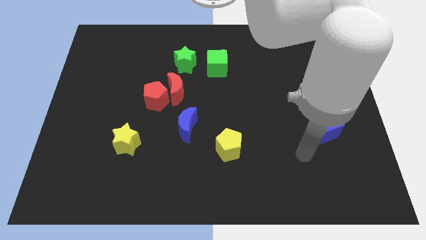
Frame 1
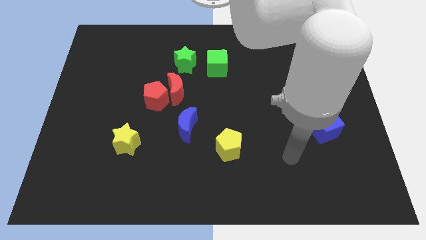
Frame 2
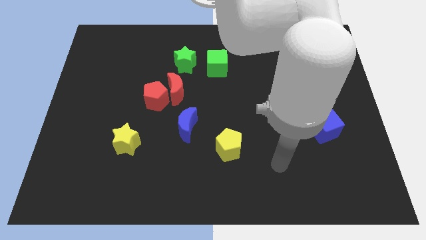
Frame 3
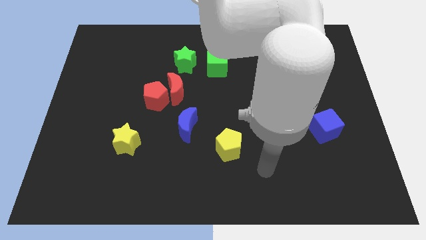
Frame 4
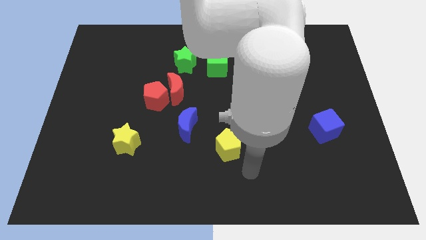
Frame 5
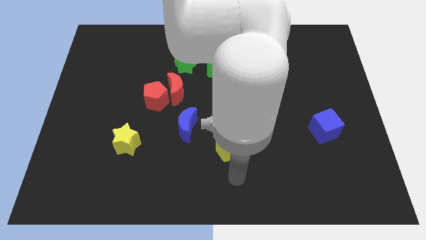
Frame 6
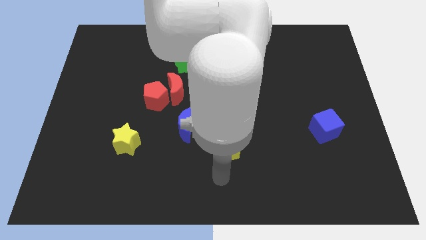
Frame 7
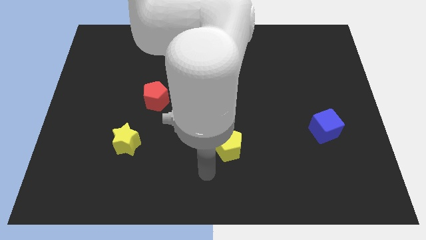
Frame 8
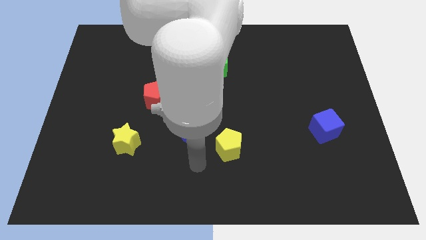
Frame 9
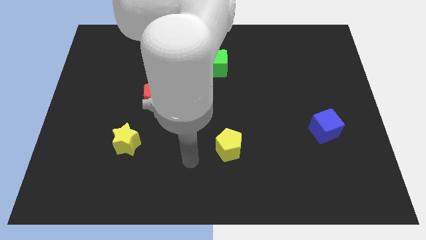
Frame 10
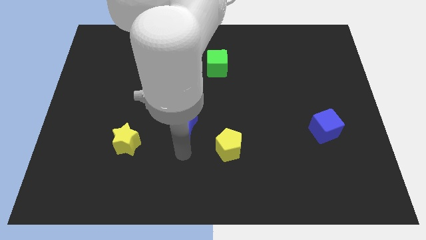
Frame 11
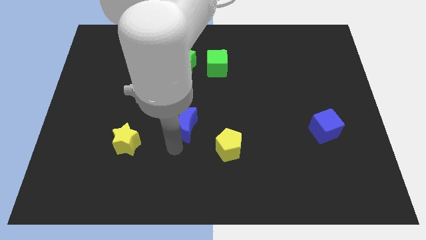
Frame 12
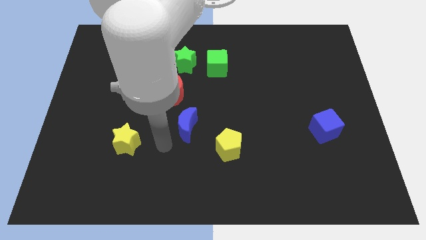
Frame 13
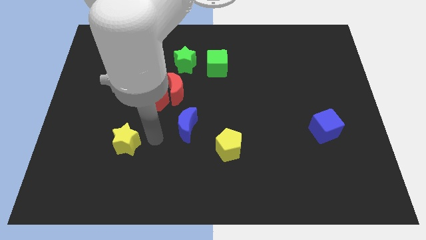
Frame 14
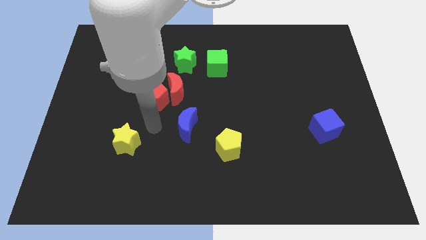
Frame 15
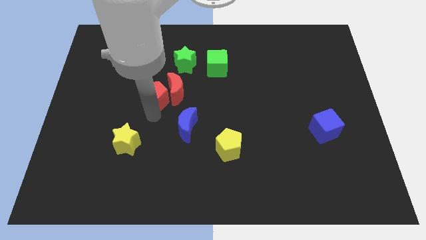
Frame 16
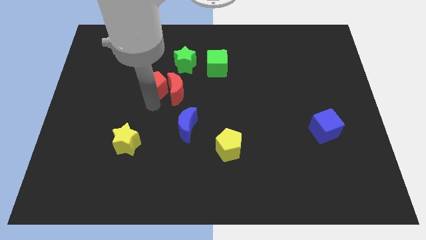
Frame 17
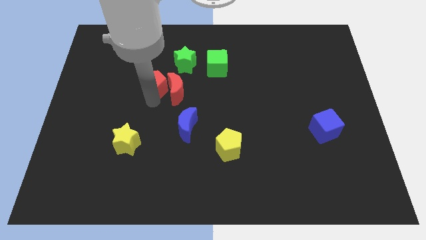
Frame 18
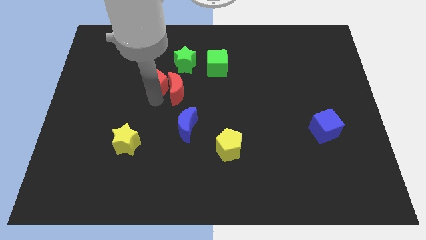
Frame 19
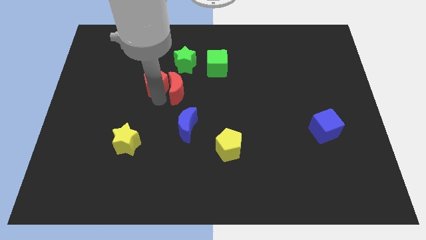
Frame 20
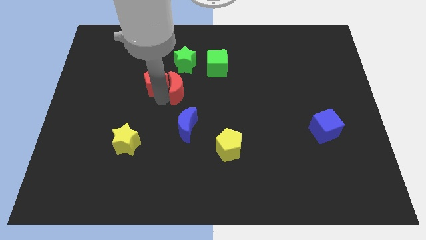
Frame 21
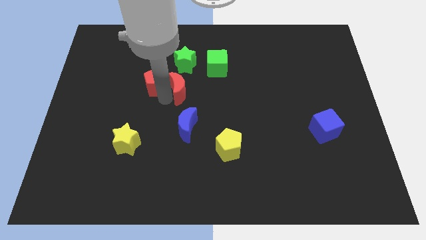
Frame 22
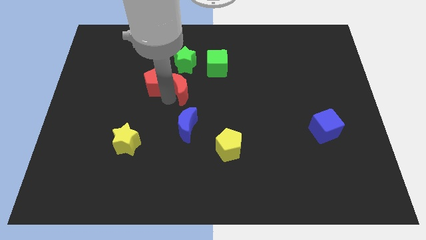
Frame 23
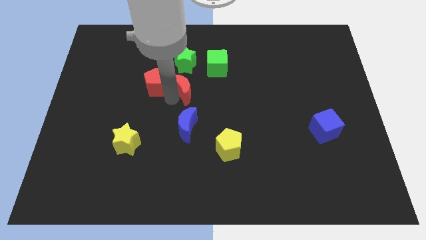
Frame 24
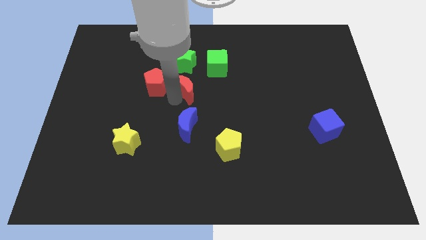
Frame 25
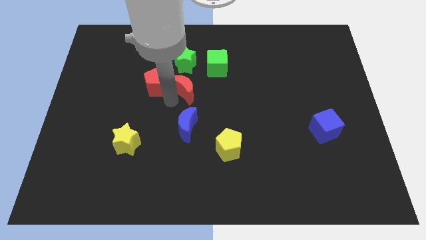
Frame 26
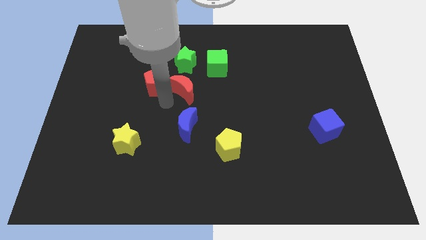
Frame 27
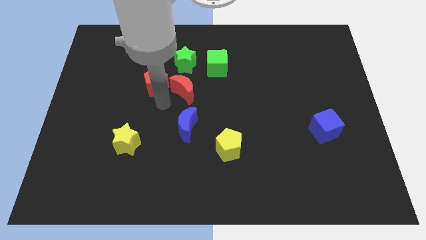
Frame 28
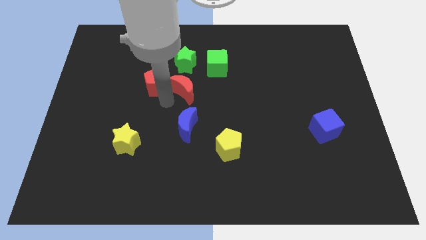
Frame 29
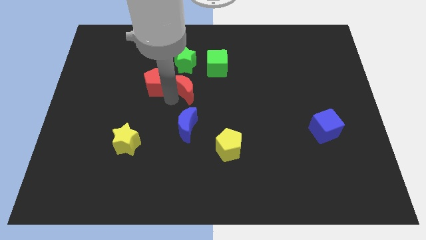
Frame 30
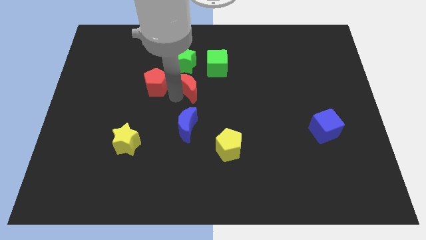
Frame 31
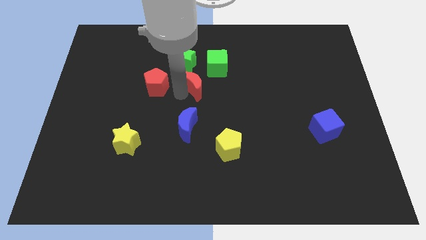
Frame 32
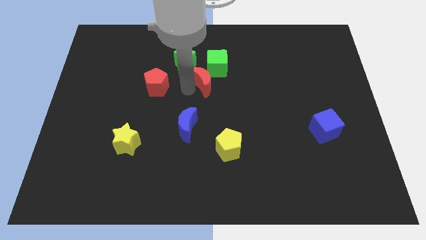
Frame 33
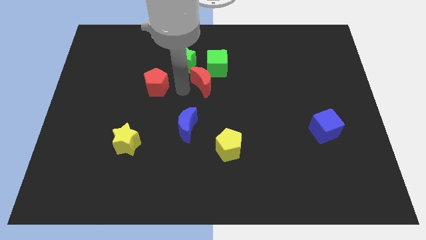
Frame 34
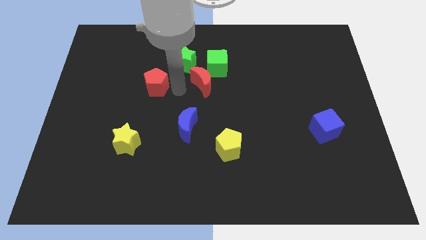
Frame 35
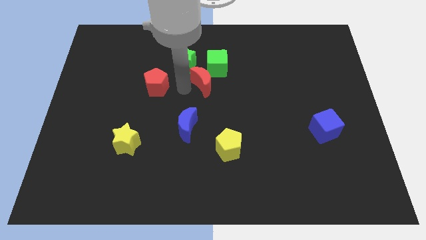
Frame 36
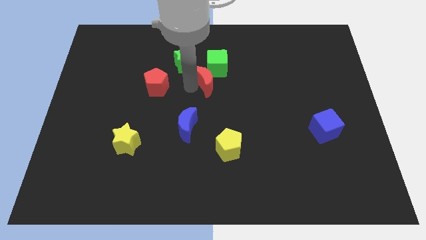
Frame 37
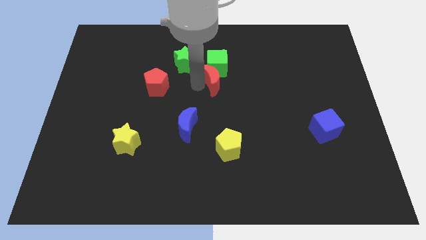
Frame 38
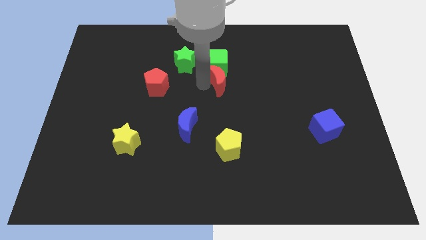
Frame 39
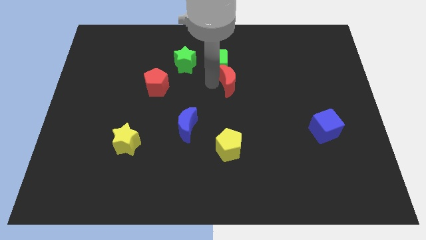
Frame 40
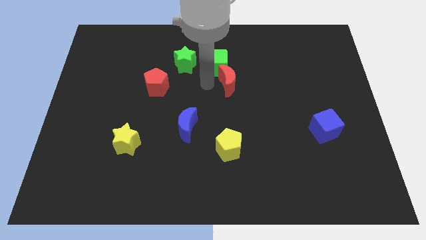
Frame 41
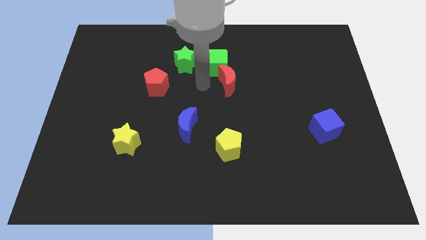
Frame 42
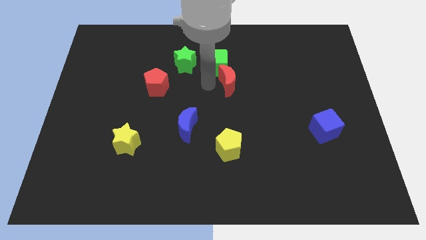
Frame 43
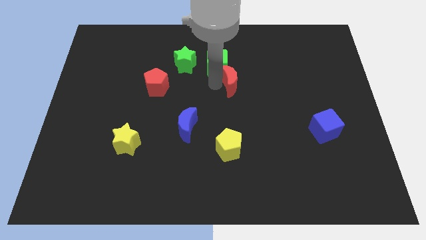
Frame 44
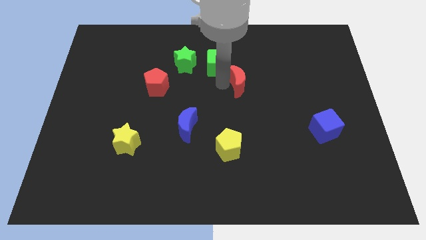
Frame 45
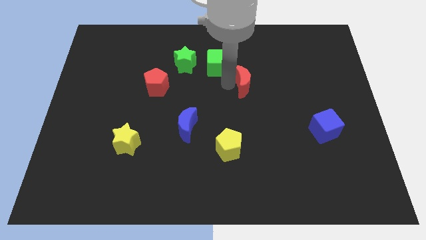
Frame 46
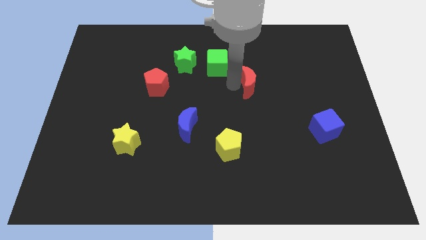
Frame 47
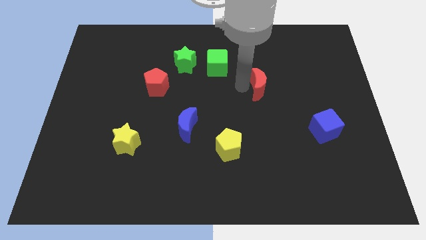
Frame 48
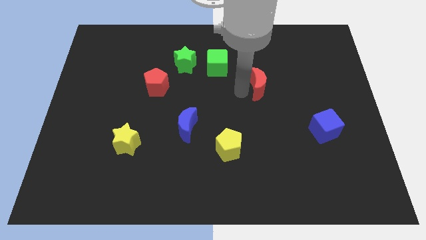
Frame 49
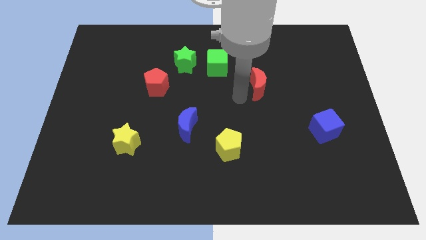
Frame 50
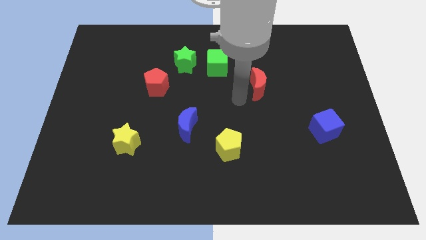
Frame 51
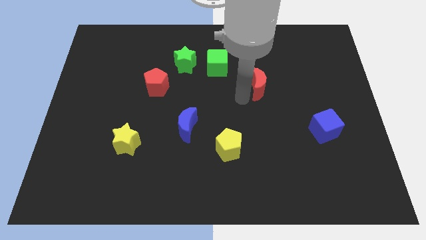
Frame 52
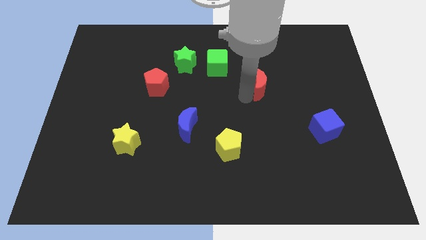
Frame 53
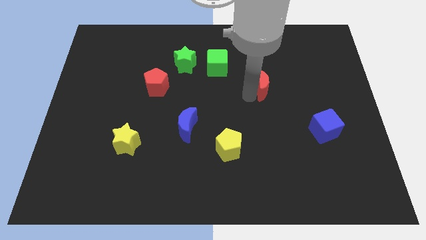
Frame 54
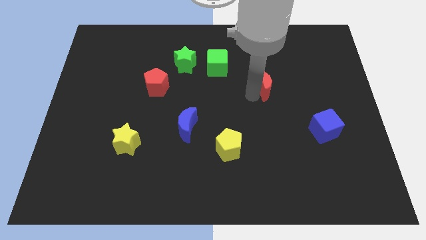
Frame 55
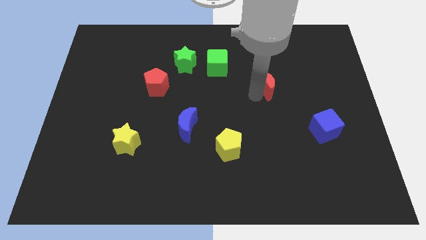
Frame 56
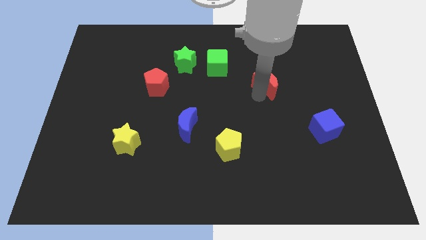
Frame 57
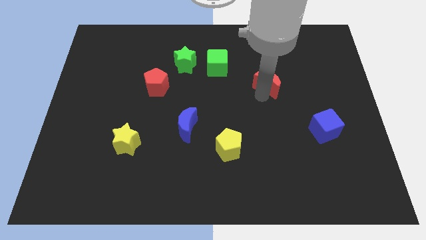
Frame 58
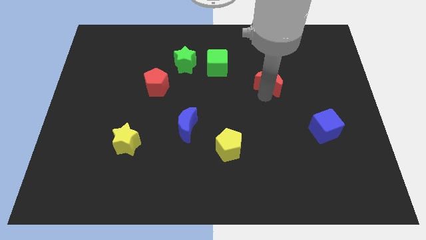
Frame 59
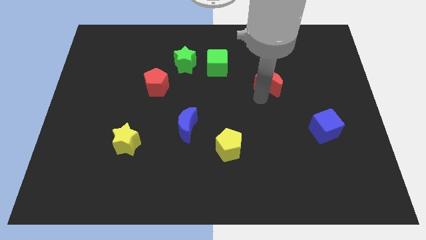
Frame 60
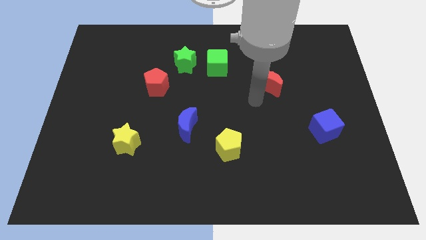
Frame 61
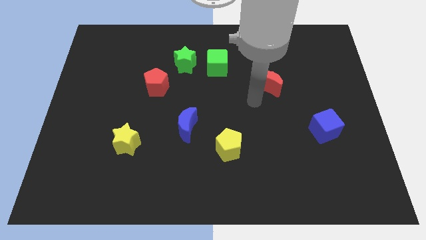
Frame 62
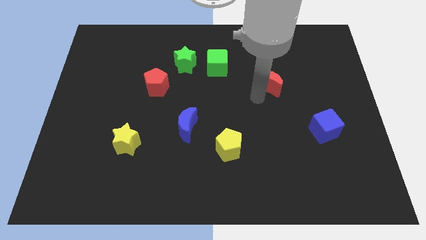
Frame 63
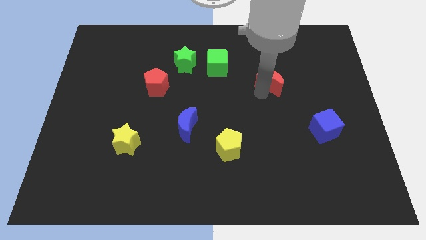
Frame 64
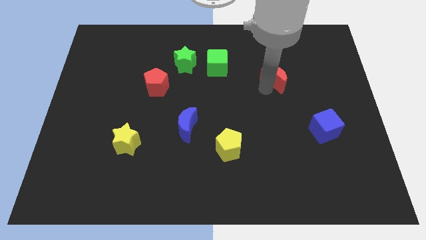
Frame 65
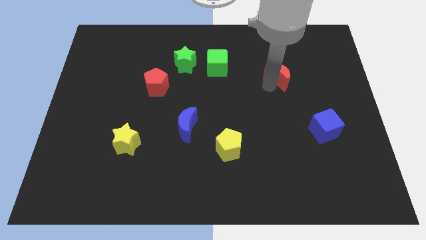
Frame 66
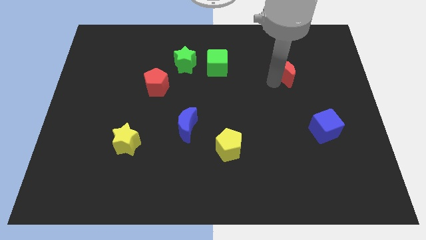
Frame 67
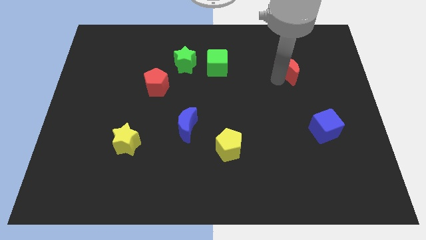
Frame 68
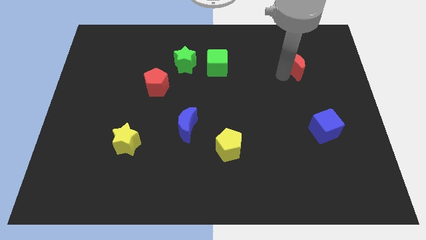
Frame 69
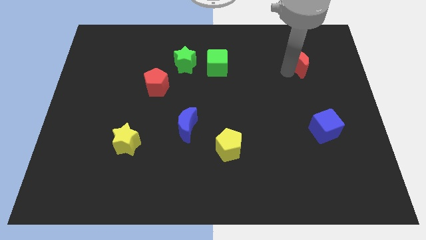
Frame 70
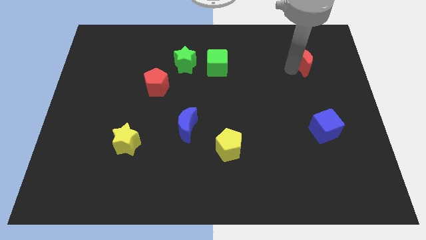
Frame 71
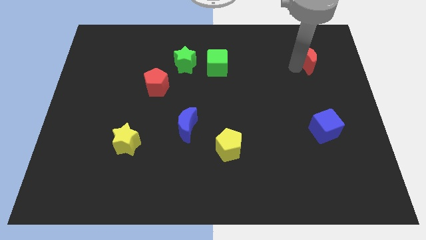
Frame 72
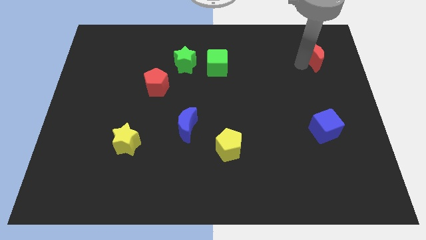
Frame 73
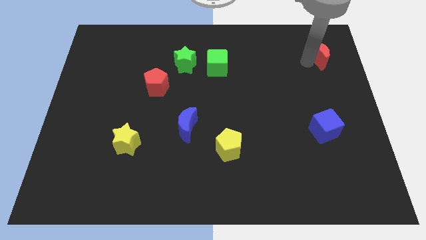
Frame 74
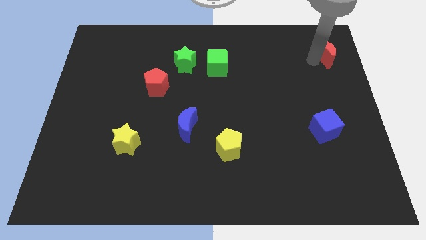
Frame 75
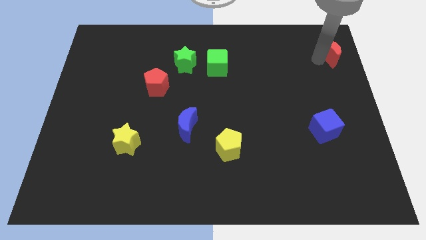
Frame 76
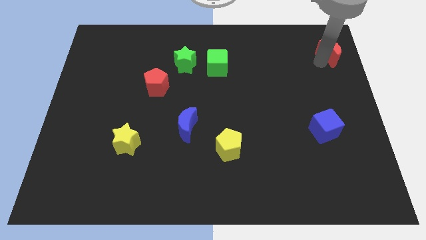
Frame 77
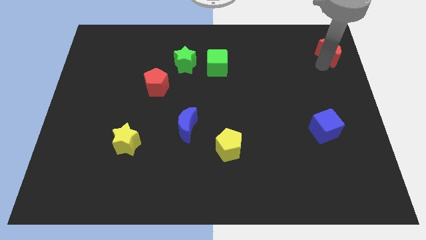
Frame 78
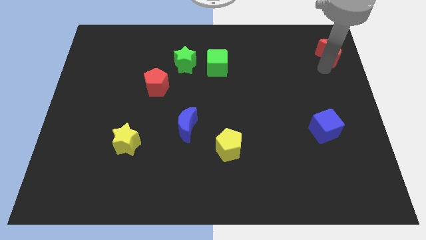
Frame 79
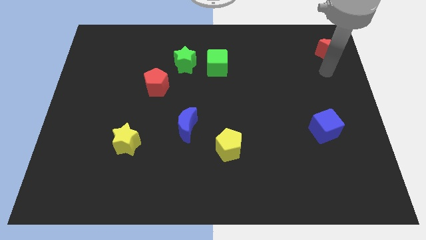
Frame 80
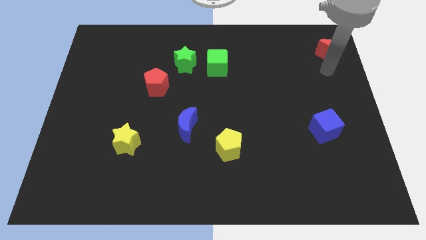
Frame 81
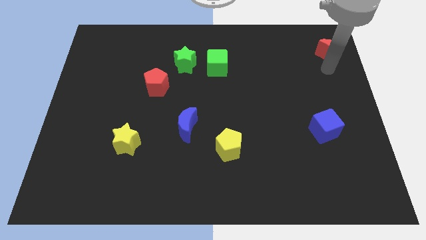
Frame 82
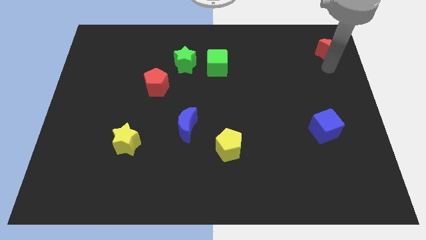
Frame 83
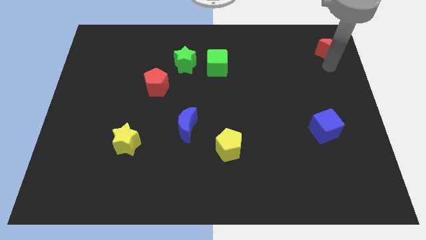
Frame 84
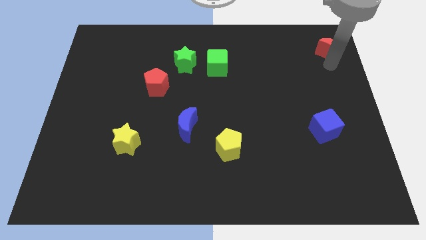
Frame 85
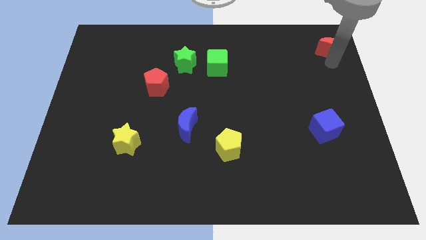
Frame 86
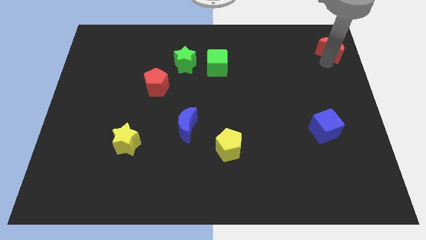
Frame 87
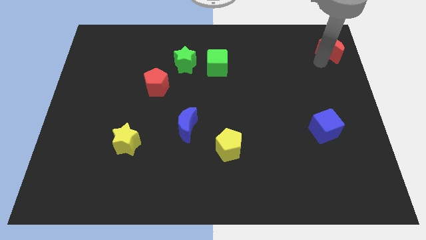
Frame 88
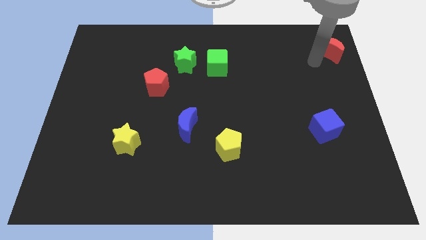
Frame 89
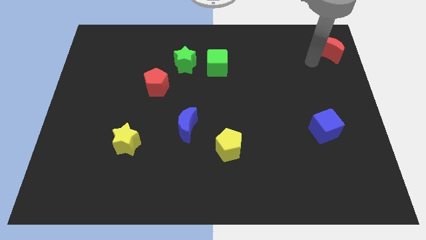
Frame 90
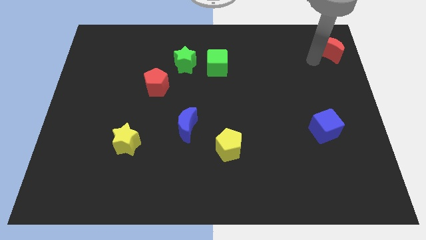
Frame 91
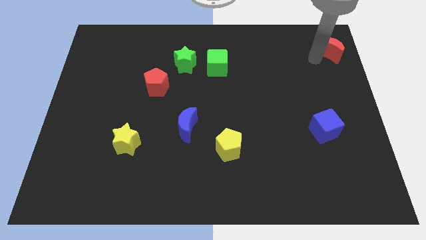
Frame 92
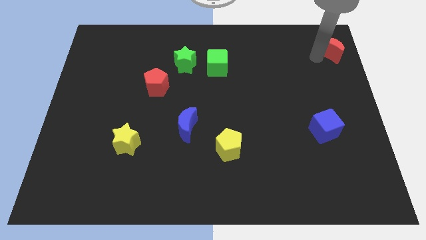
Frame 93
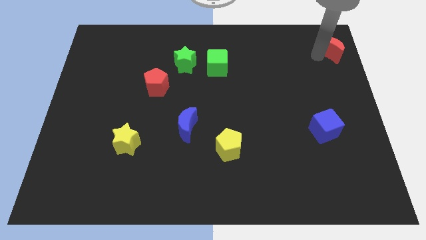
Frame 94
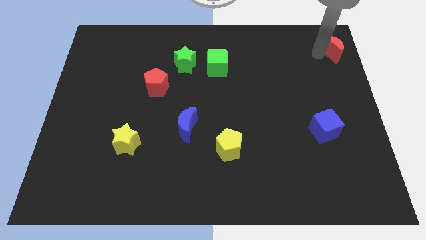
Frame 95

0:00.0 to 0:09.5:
slide the red moon to the top right
